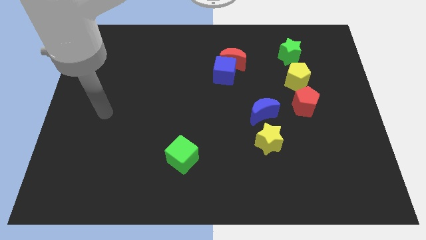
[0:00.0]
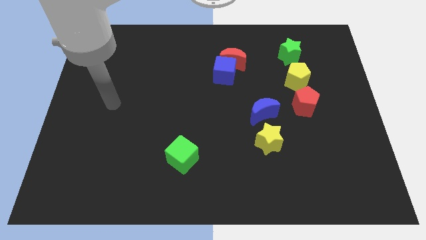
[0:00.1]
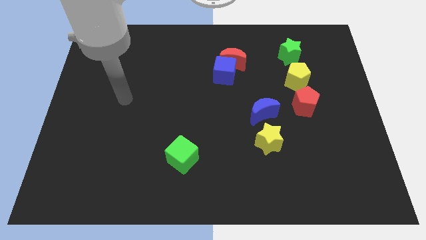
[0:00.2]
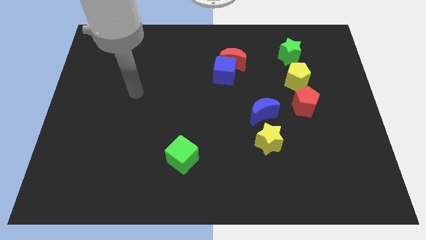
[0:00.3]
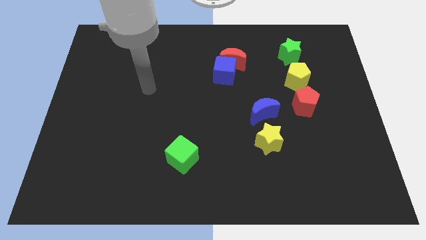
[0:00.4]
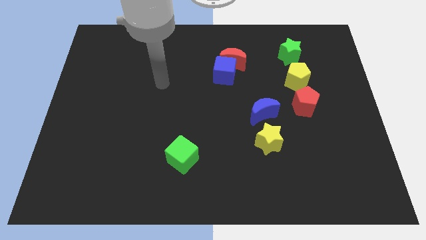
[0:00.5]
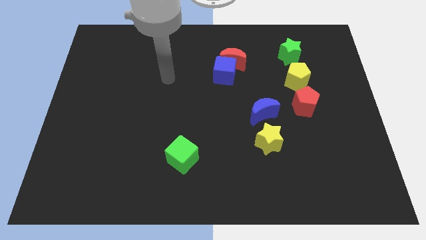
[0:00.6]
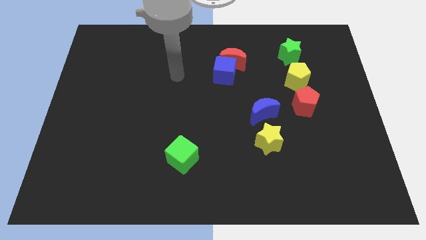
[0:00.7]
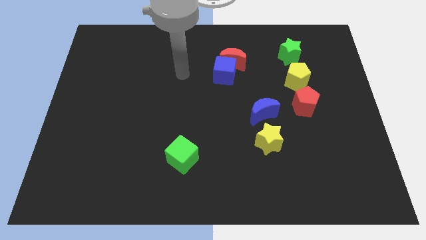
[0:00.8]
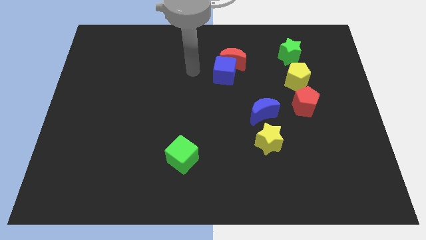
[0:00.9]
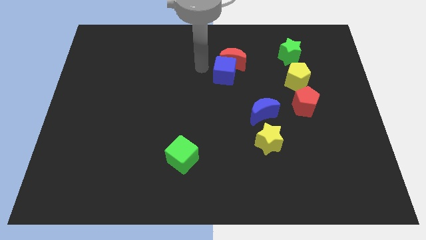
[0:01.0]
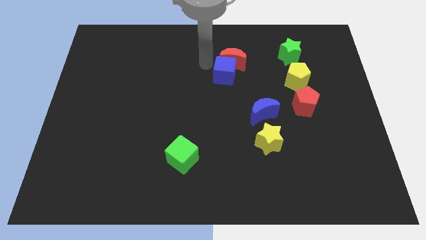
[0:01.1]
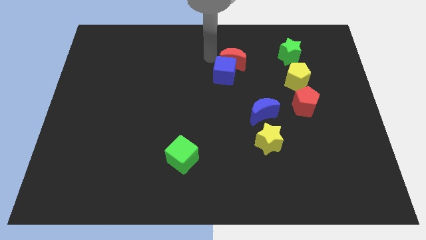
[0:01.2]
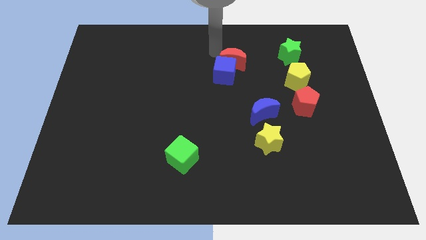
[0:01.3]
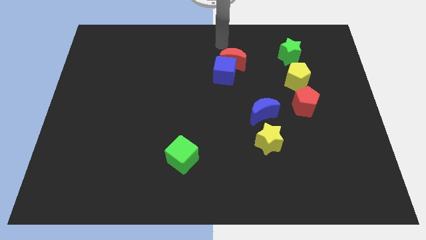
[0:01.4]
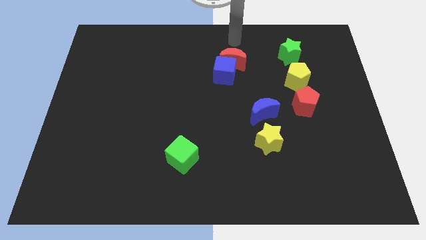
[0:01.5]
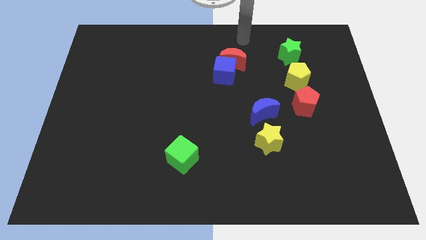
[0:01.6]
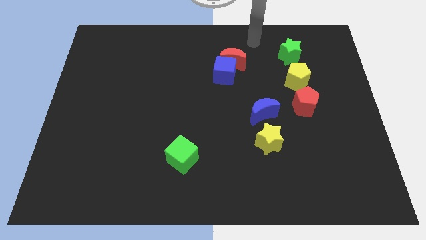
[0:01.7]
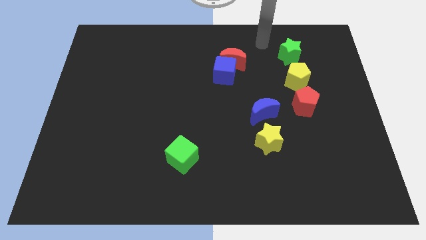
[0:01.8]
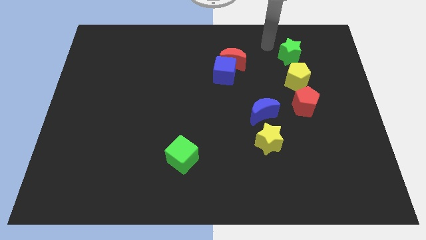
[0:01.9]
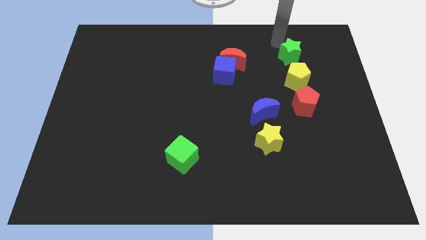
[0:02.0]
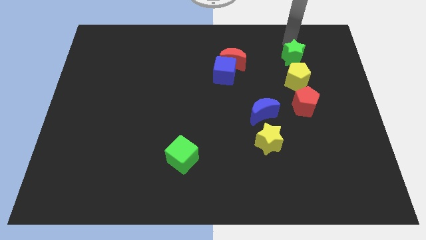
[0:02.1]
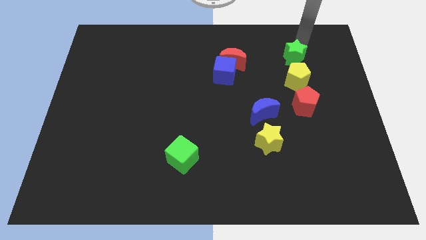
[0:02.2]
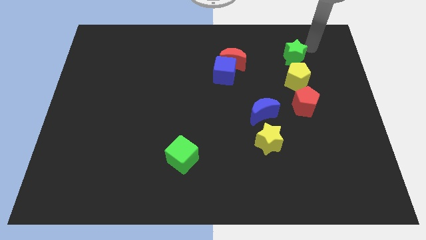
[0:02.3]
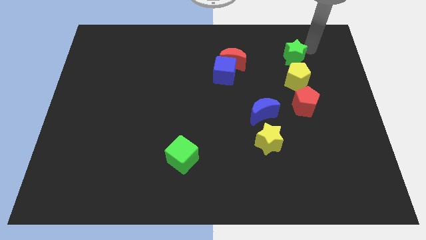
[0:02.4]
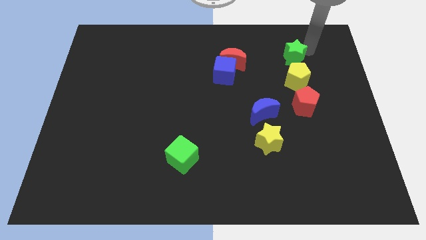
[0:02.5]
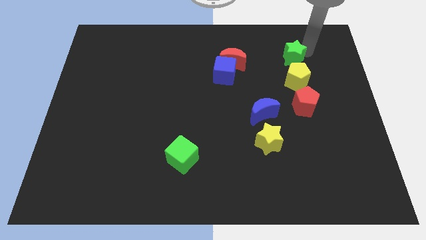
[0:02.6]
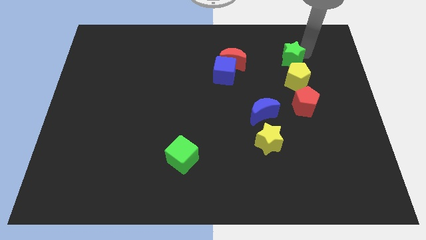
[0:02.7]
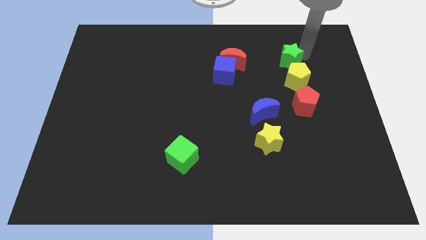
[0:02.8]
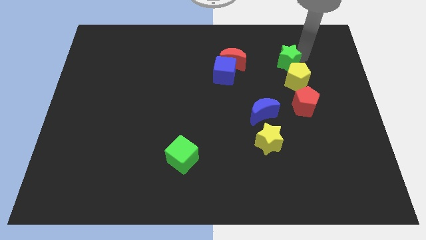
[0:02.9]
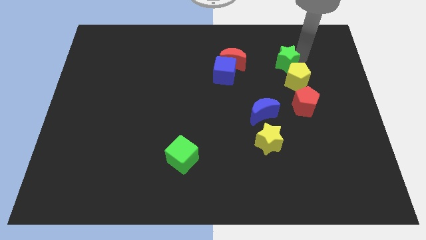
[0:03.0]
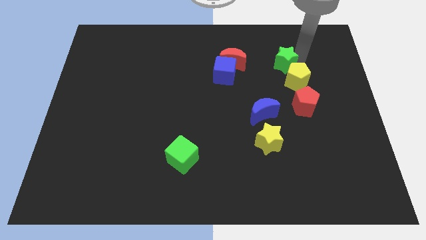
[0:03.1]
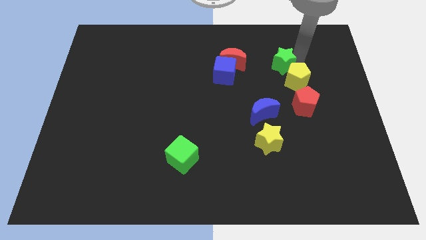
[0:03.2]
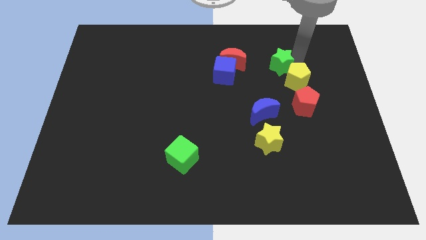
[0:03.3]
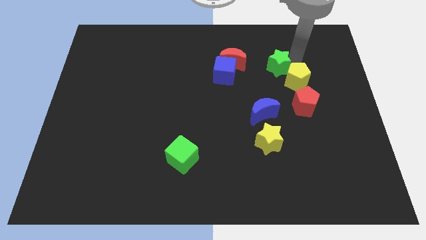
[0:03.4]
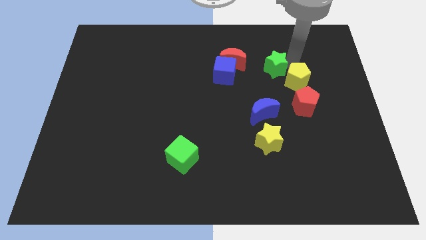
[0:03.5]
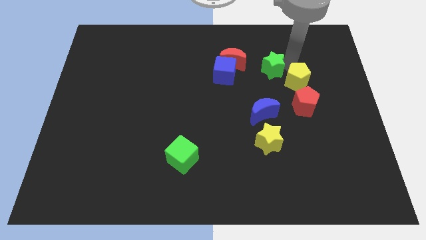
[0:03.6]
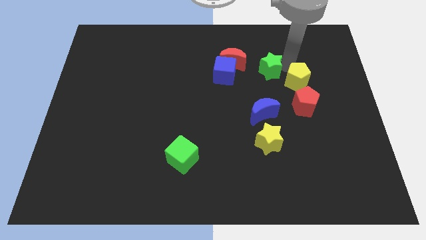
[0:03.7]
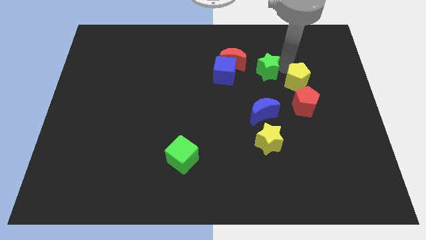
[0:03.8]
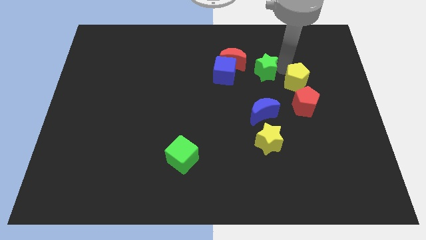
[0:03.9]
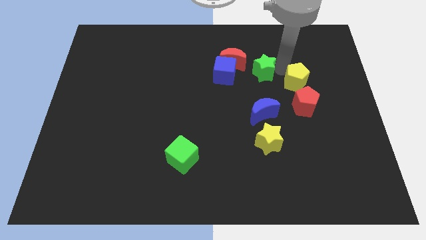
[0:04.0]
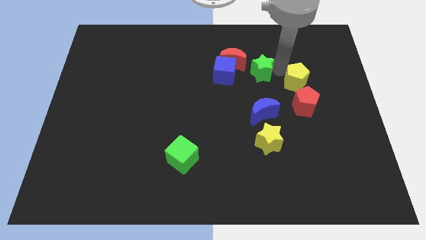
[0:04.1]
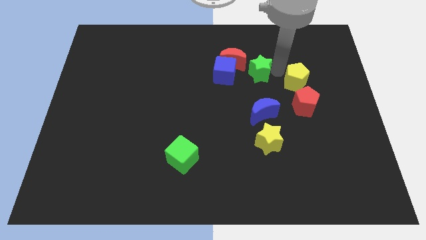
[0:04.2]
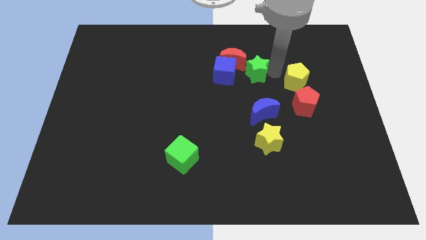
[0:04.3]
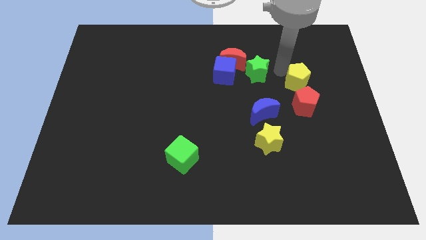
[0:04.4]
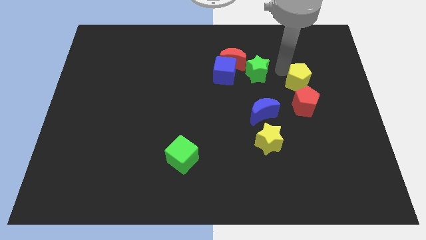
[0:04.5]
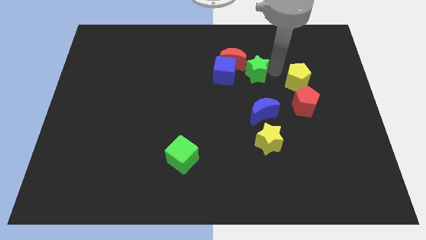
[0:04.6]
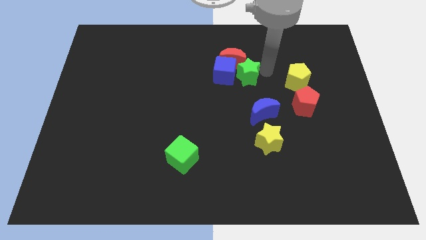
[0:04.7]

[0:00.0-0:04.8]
push the green star towards the blue cube

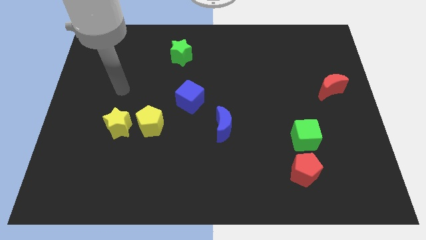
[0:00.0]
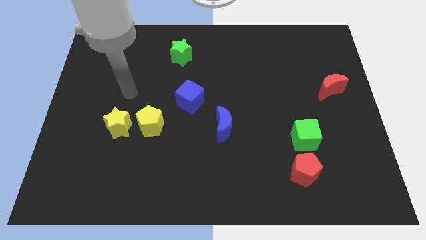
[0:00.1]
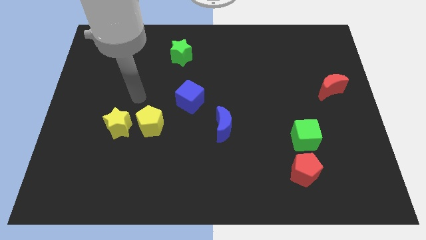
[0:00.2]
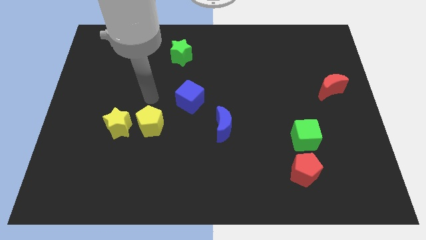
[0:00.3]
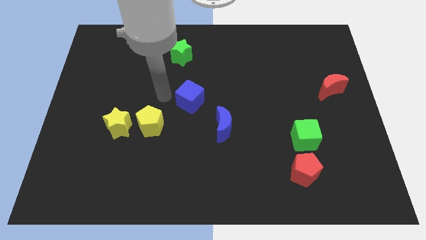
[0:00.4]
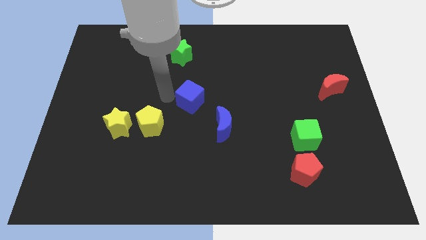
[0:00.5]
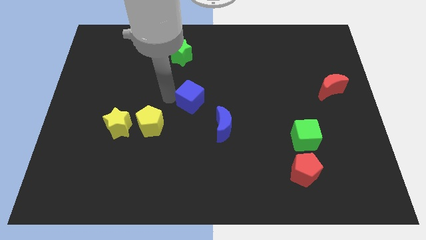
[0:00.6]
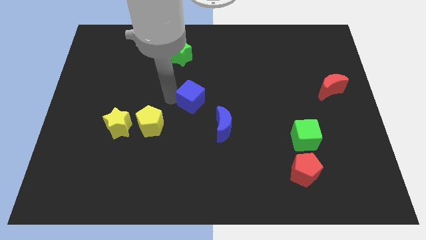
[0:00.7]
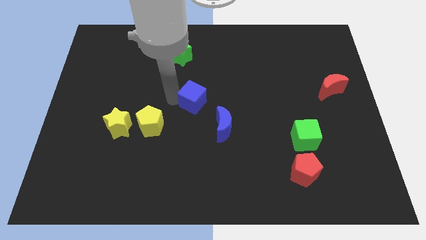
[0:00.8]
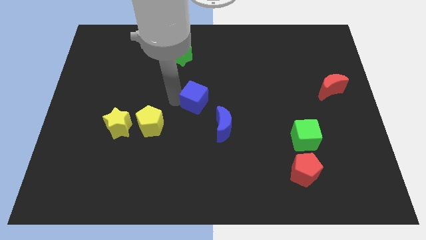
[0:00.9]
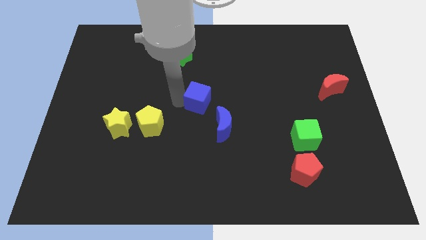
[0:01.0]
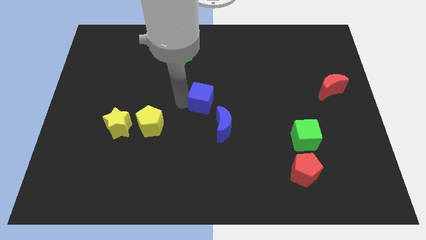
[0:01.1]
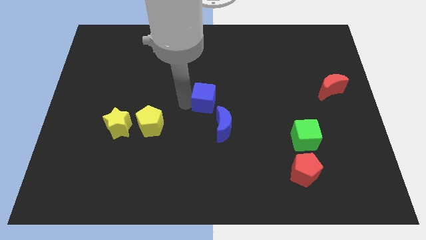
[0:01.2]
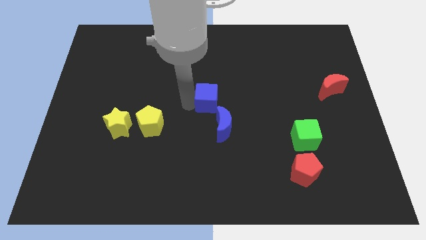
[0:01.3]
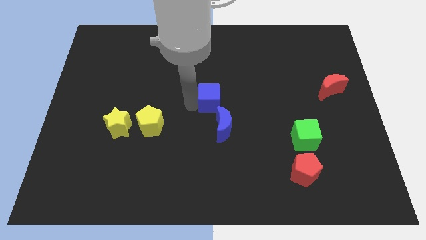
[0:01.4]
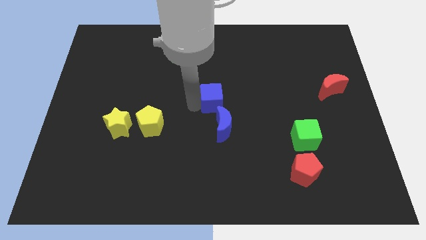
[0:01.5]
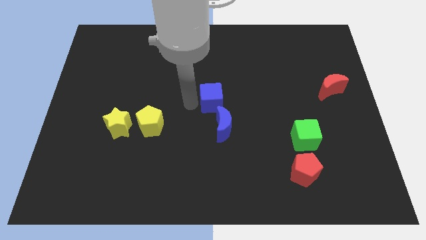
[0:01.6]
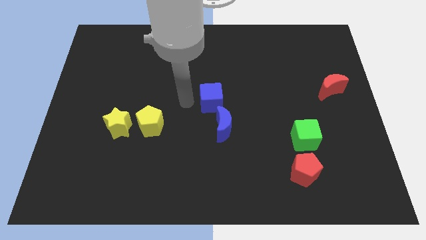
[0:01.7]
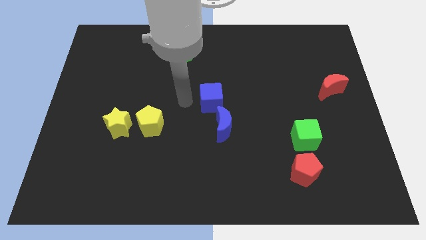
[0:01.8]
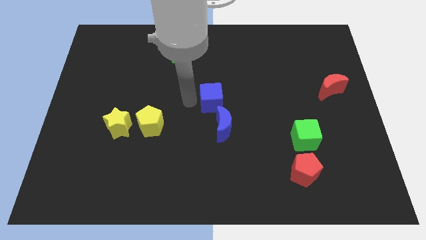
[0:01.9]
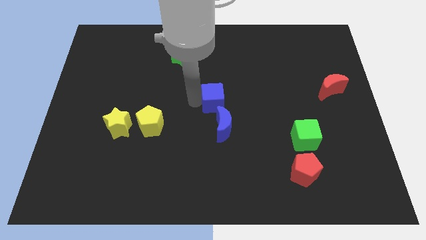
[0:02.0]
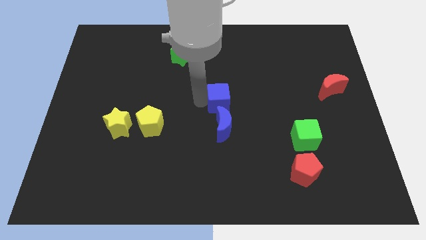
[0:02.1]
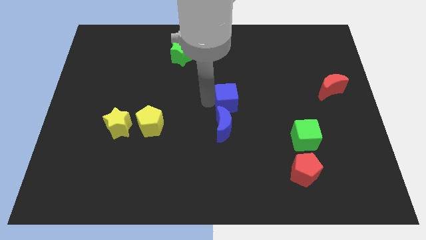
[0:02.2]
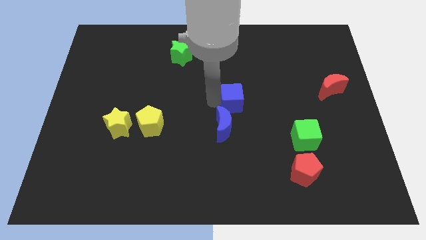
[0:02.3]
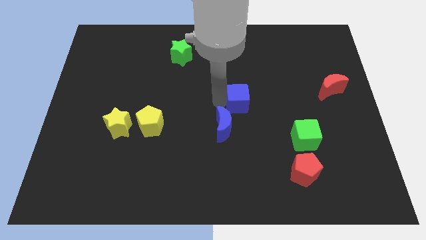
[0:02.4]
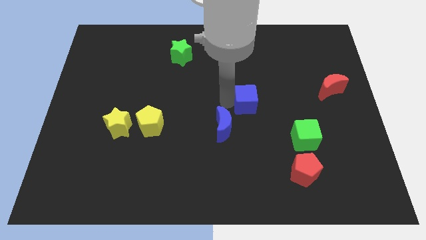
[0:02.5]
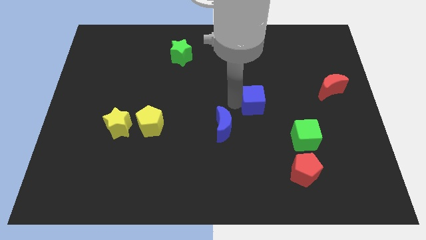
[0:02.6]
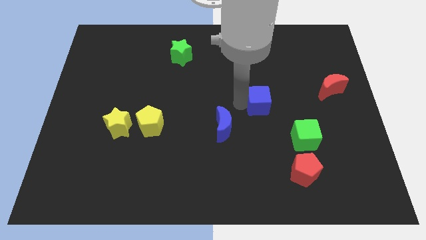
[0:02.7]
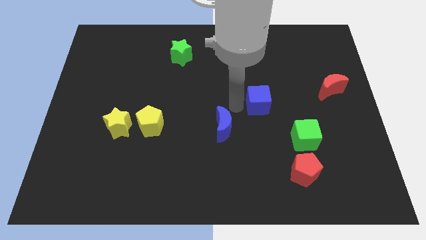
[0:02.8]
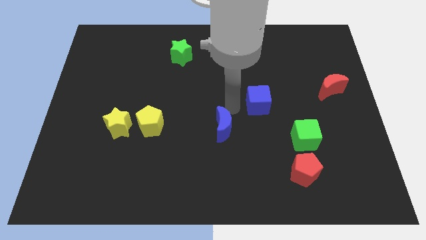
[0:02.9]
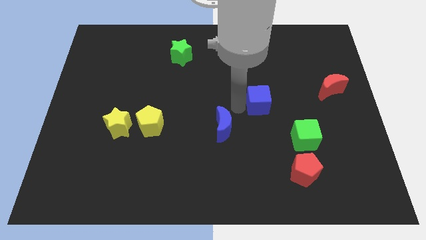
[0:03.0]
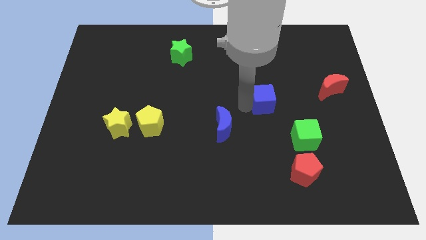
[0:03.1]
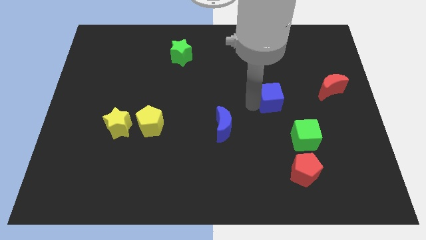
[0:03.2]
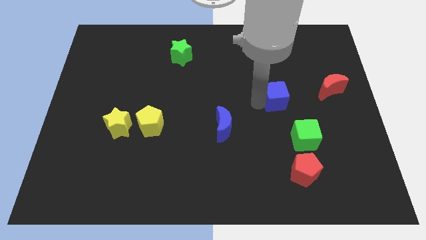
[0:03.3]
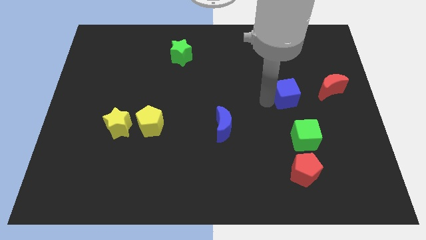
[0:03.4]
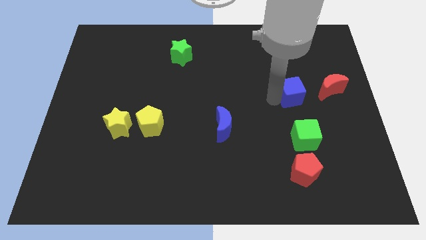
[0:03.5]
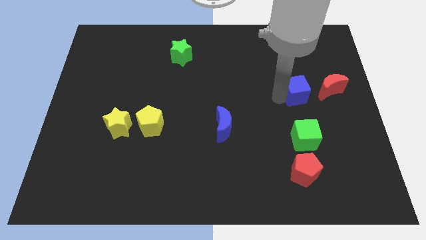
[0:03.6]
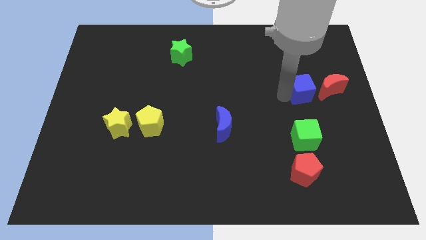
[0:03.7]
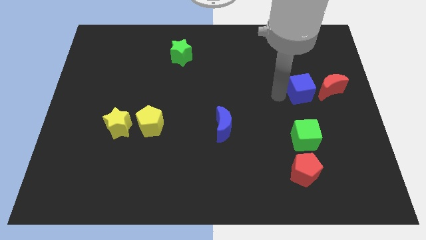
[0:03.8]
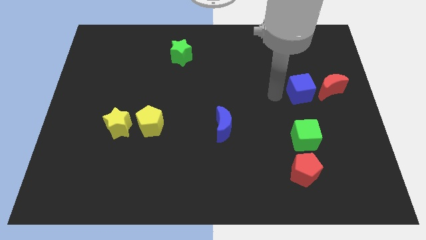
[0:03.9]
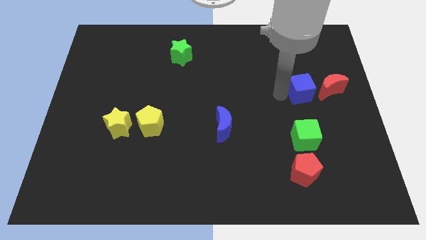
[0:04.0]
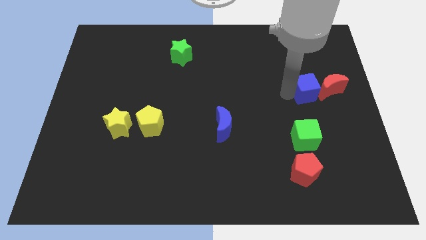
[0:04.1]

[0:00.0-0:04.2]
put the blue cube to the red moon
